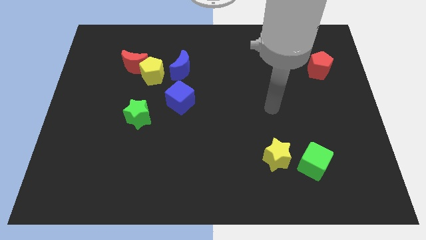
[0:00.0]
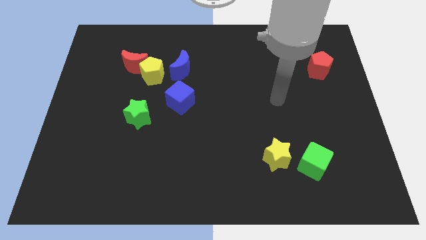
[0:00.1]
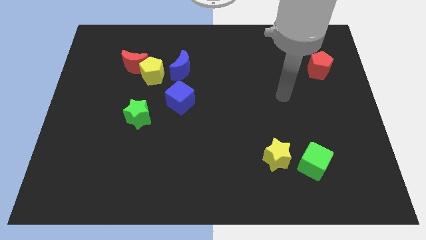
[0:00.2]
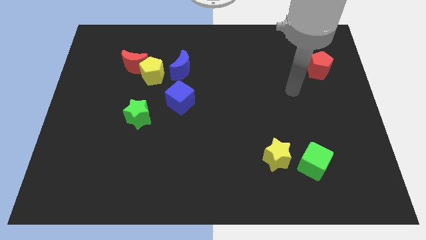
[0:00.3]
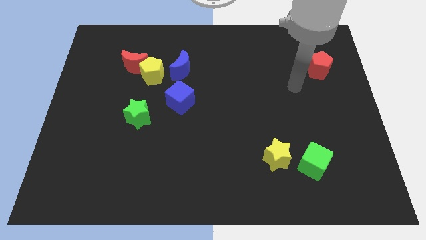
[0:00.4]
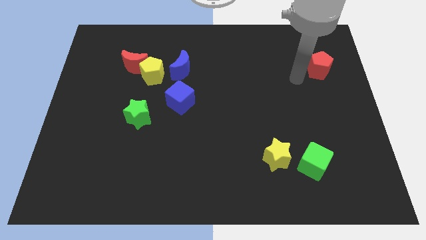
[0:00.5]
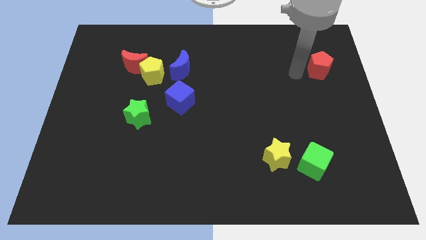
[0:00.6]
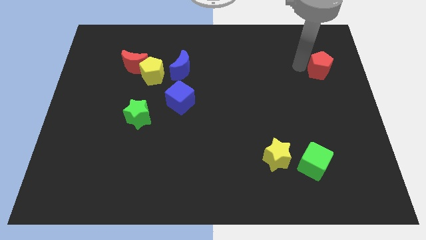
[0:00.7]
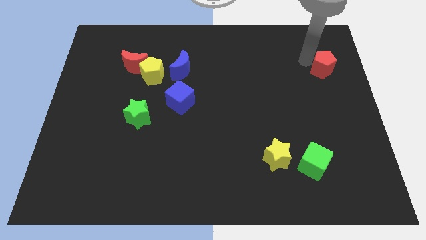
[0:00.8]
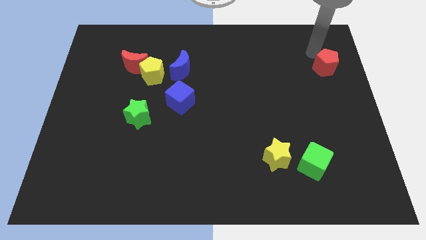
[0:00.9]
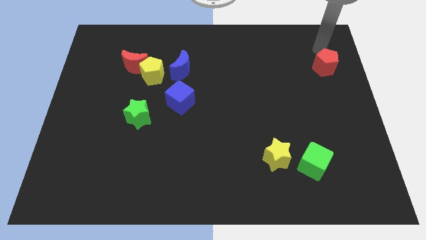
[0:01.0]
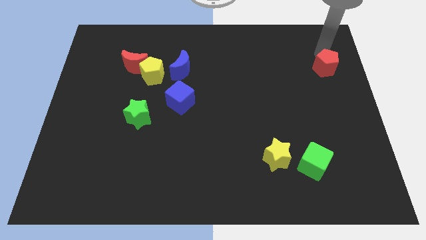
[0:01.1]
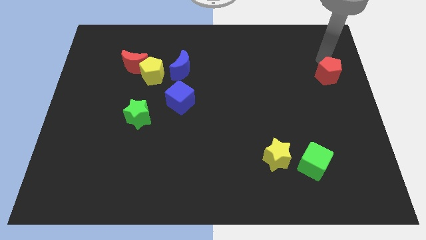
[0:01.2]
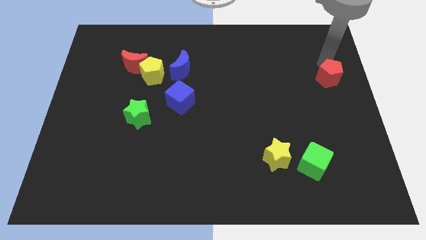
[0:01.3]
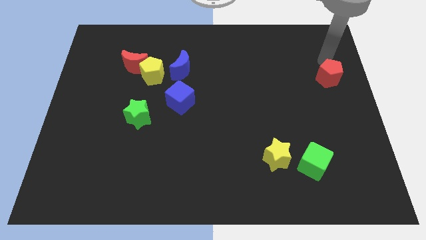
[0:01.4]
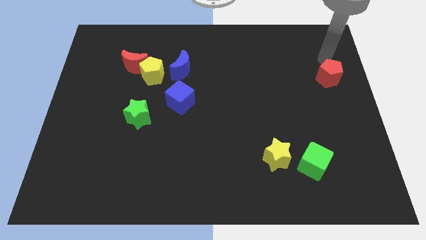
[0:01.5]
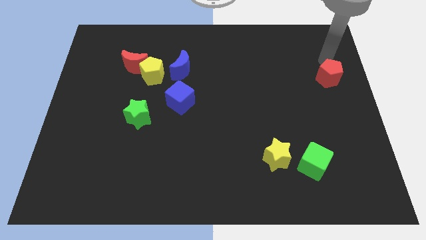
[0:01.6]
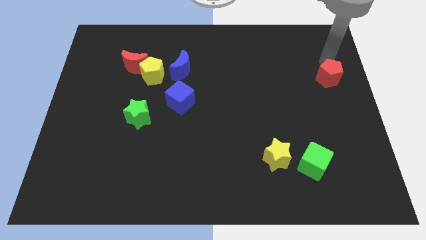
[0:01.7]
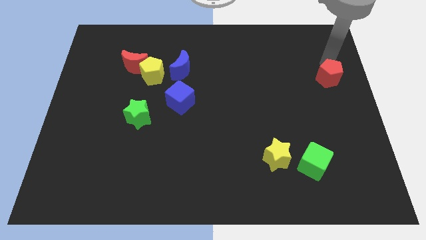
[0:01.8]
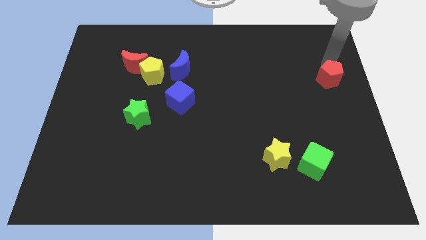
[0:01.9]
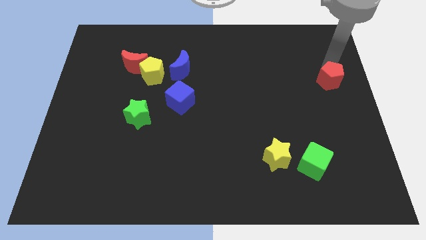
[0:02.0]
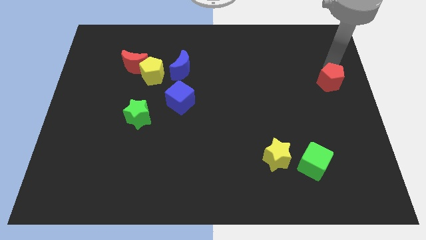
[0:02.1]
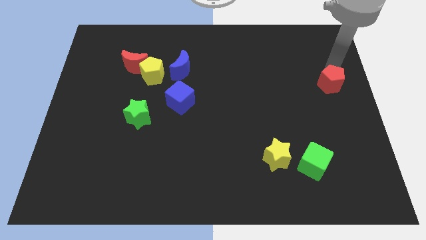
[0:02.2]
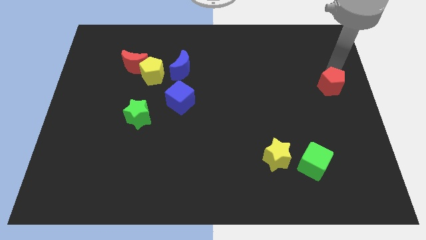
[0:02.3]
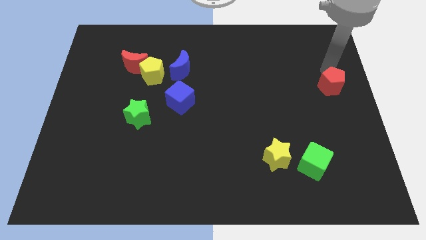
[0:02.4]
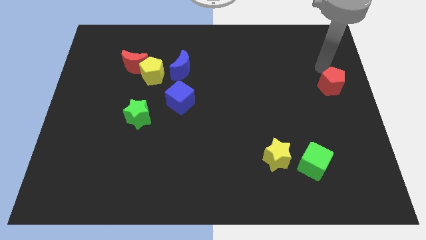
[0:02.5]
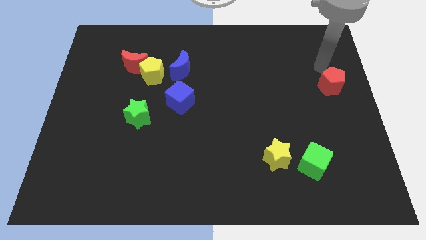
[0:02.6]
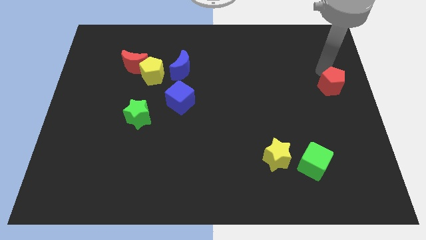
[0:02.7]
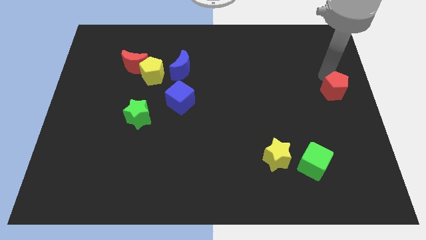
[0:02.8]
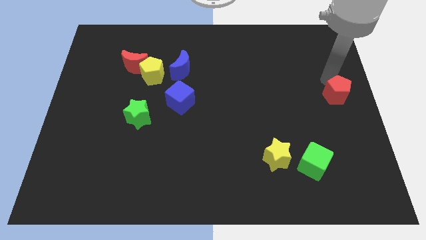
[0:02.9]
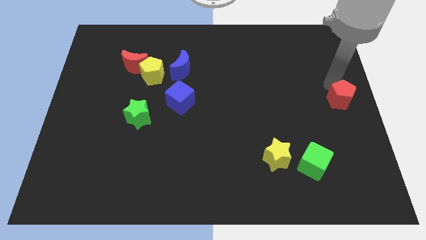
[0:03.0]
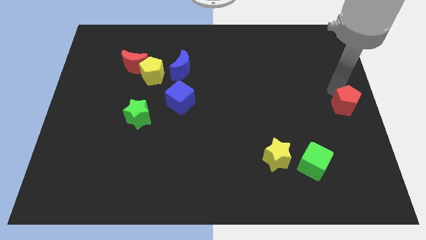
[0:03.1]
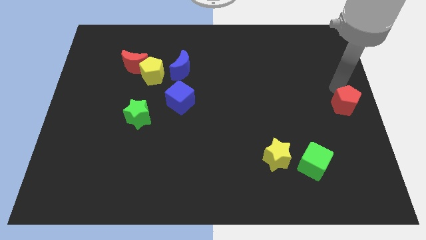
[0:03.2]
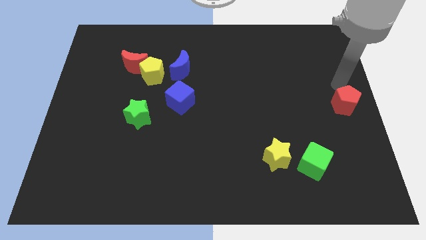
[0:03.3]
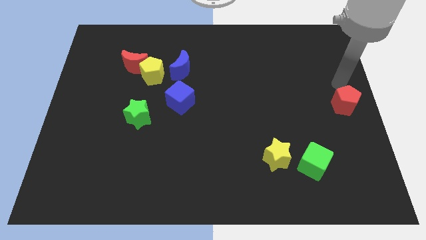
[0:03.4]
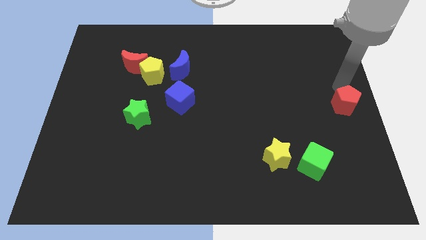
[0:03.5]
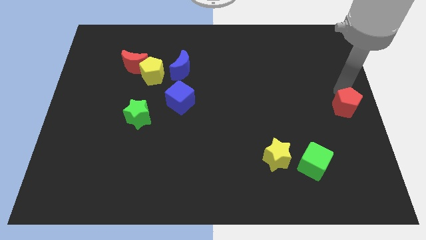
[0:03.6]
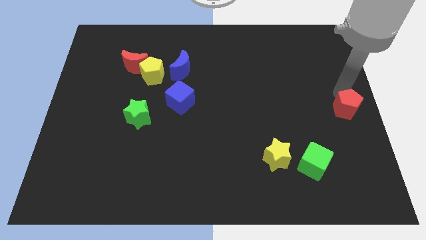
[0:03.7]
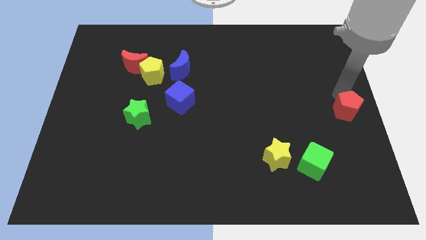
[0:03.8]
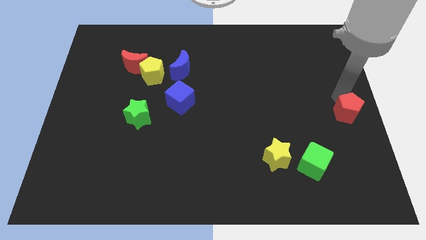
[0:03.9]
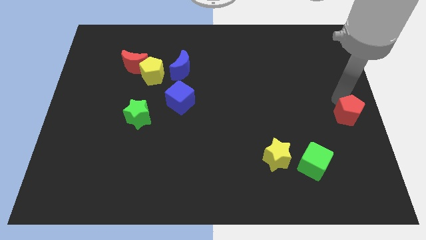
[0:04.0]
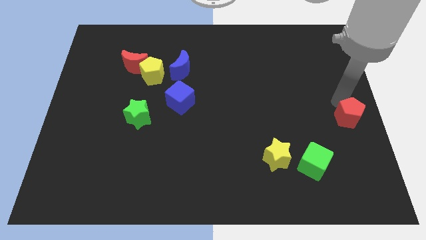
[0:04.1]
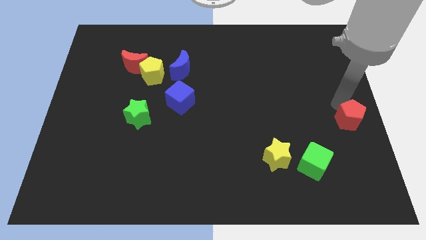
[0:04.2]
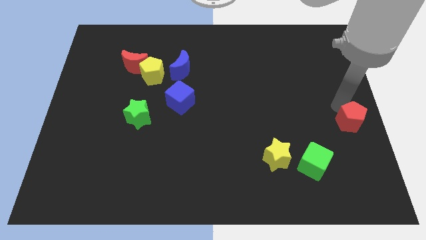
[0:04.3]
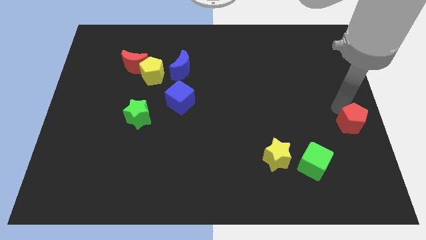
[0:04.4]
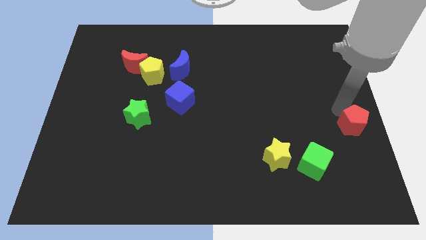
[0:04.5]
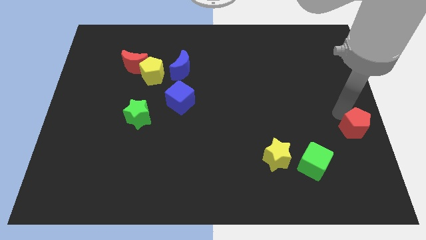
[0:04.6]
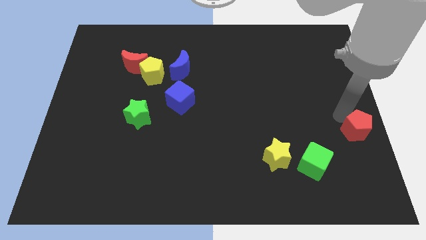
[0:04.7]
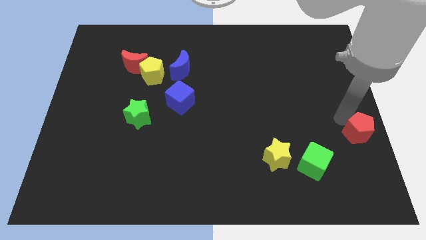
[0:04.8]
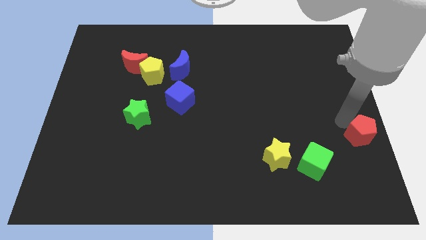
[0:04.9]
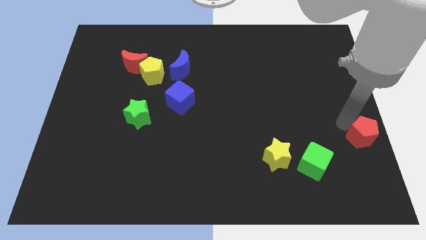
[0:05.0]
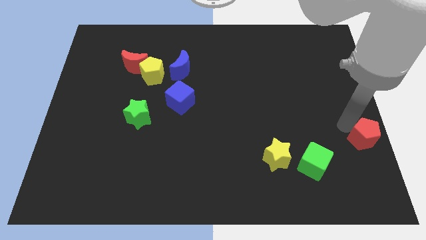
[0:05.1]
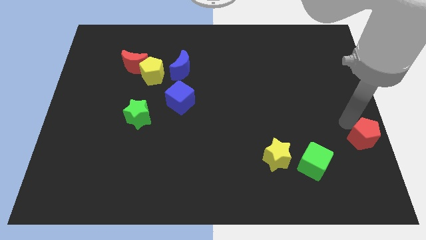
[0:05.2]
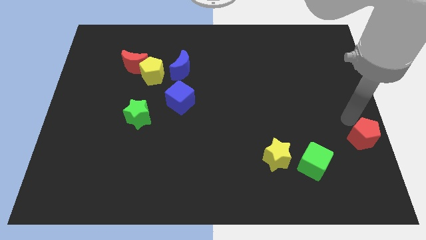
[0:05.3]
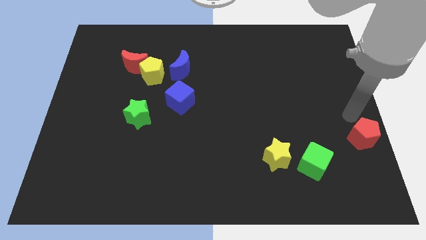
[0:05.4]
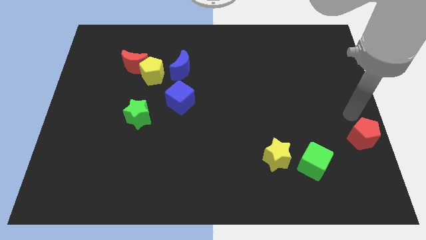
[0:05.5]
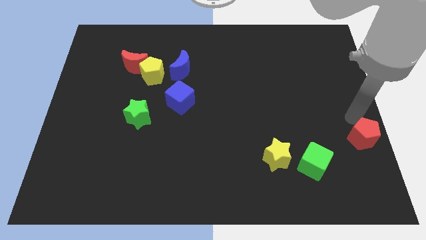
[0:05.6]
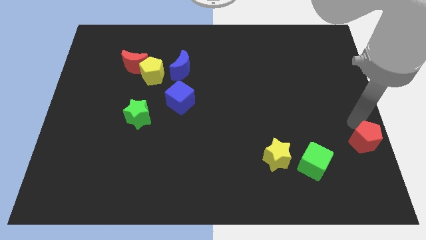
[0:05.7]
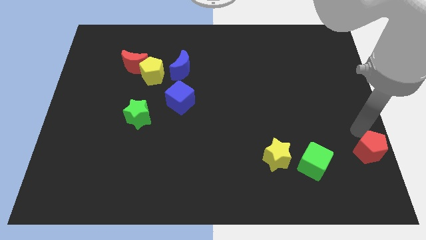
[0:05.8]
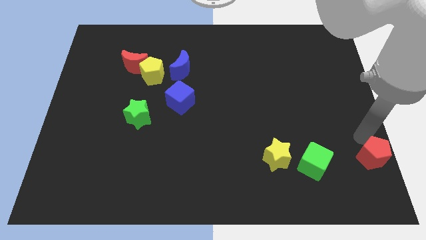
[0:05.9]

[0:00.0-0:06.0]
move the red pentagon to the bottom right

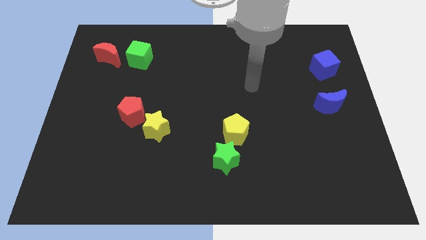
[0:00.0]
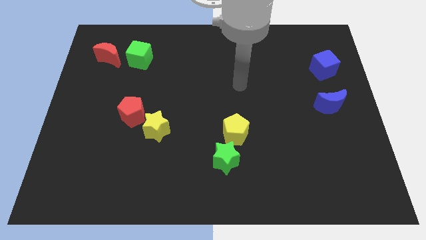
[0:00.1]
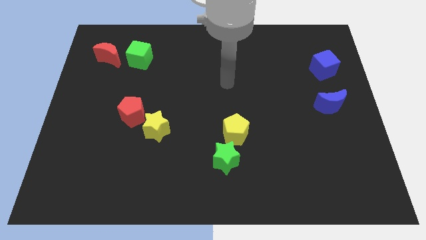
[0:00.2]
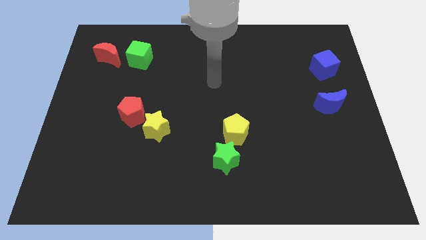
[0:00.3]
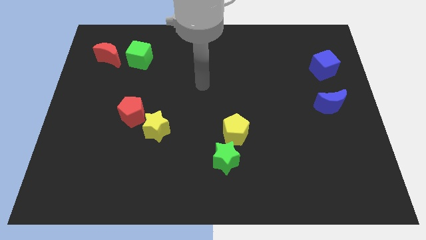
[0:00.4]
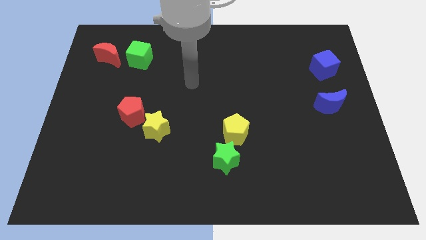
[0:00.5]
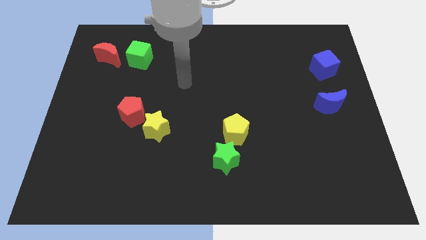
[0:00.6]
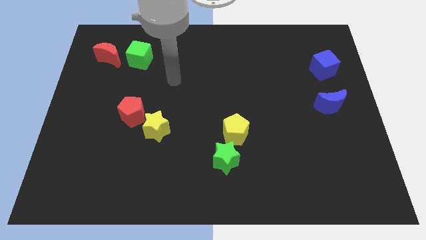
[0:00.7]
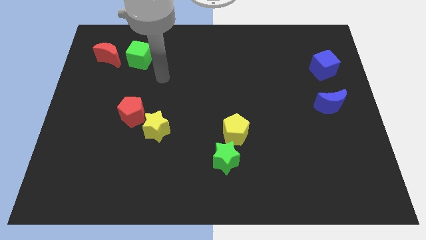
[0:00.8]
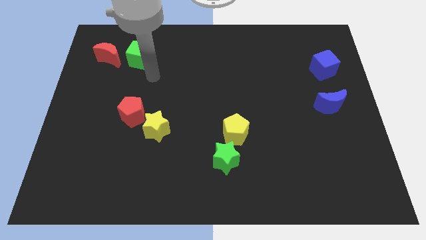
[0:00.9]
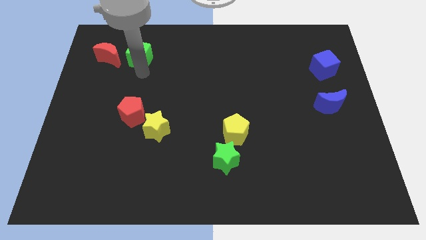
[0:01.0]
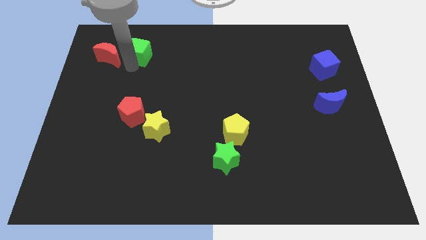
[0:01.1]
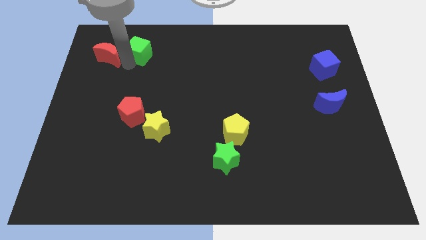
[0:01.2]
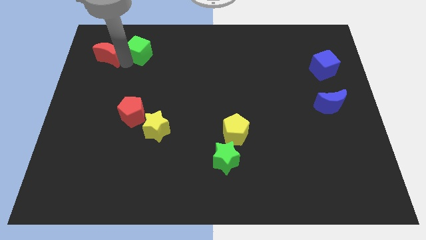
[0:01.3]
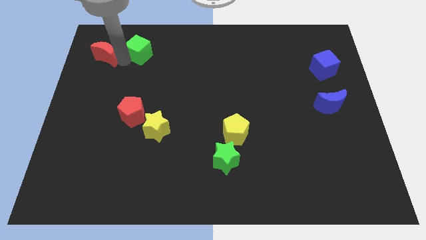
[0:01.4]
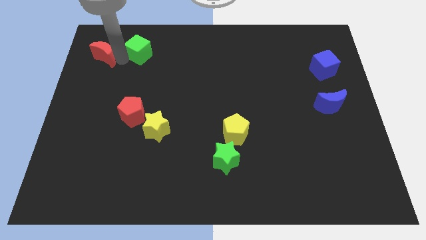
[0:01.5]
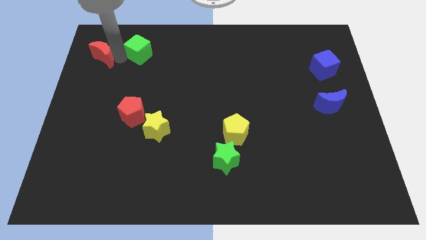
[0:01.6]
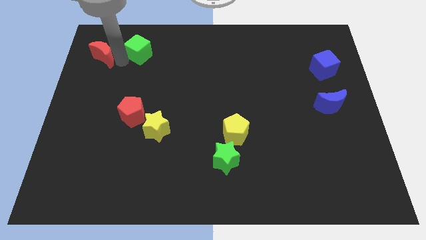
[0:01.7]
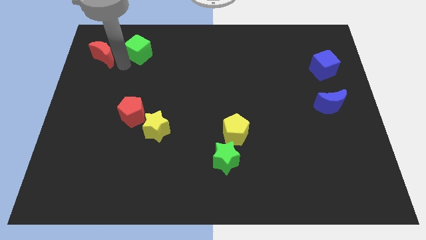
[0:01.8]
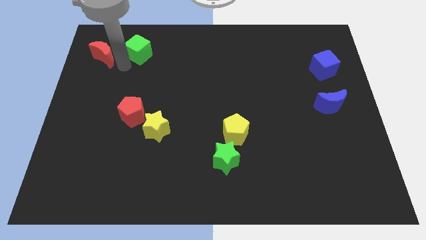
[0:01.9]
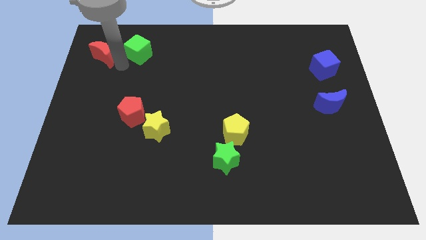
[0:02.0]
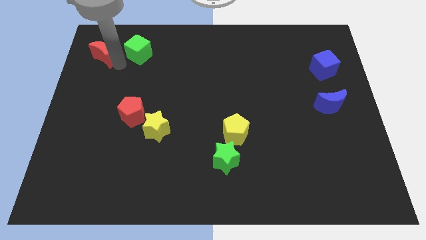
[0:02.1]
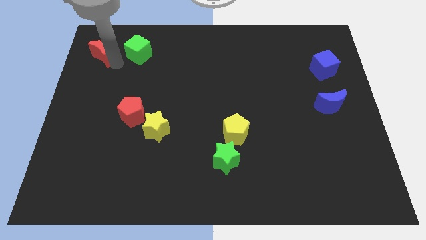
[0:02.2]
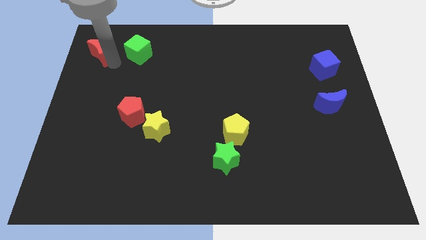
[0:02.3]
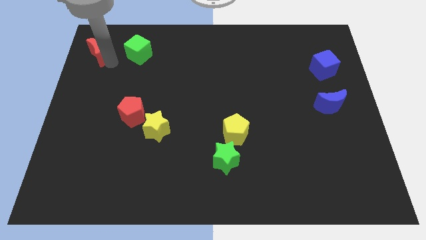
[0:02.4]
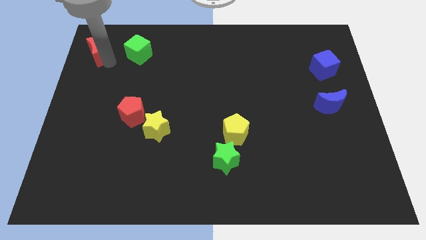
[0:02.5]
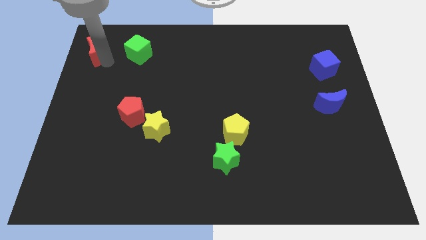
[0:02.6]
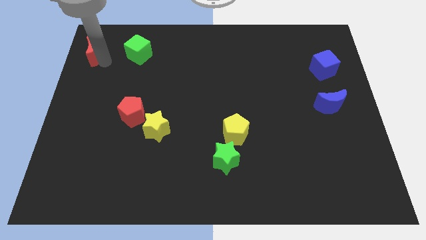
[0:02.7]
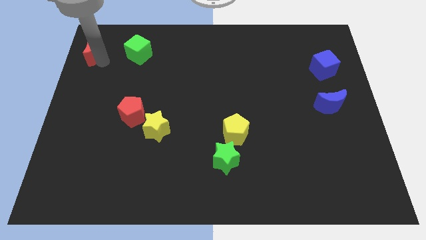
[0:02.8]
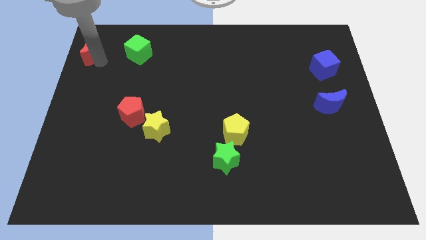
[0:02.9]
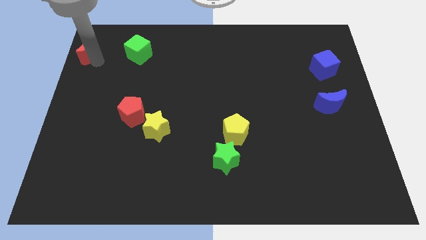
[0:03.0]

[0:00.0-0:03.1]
put the red moon to the upper left corner
